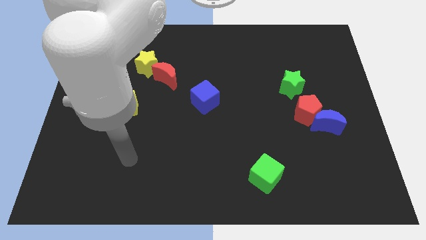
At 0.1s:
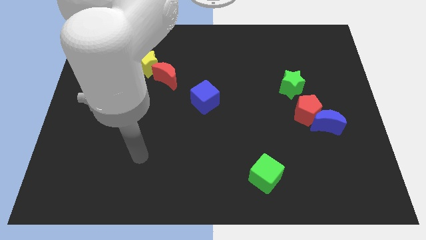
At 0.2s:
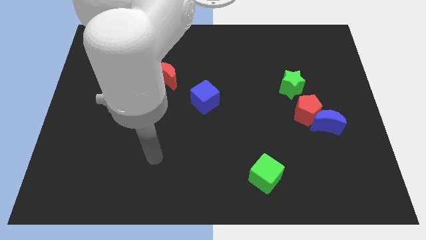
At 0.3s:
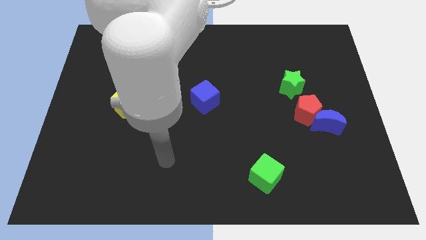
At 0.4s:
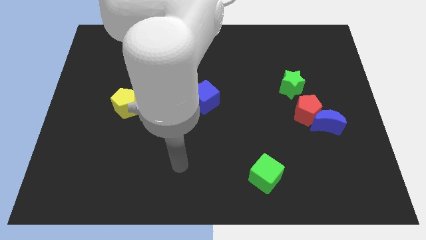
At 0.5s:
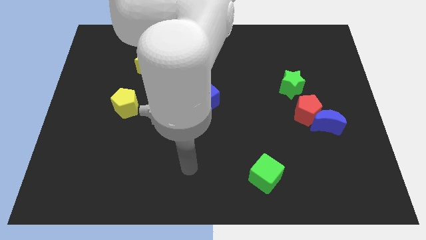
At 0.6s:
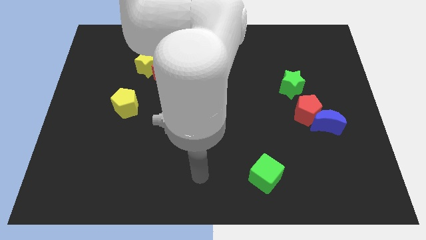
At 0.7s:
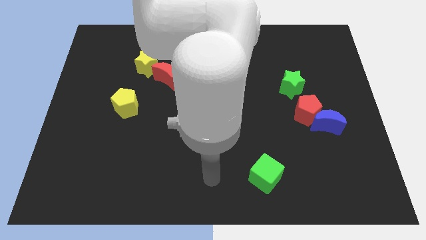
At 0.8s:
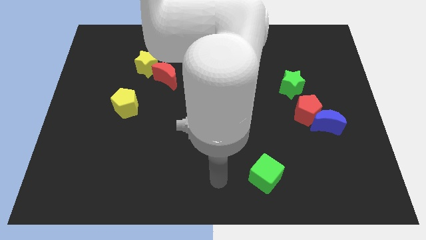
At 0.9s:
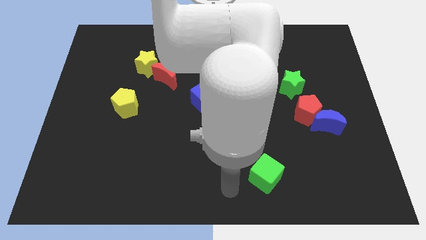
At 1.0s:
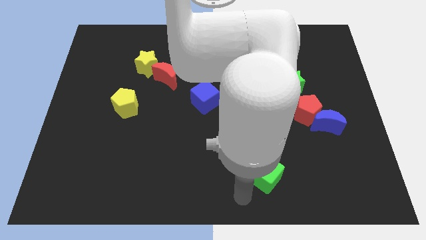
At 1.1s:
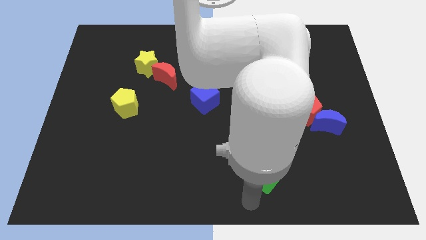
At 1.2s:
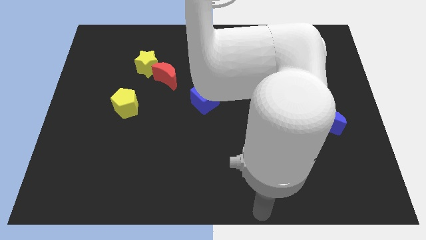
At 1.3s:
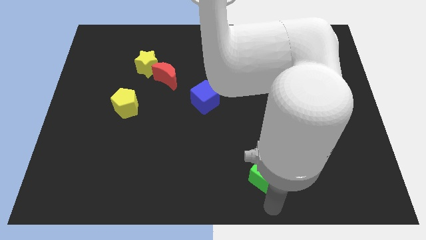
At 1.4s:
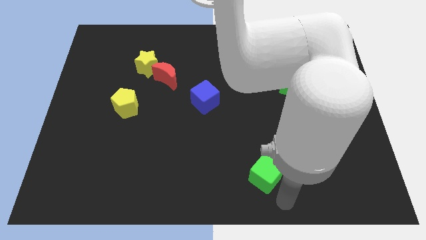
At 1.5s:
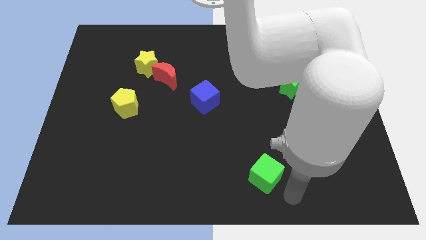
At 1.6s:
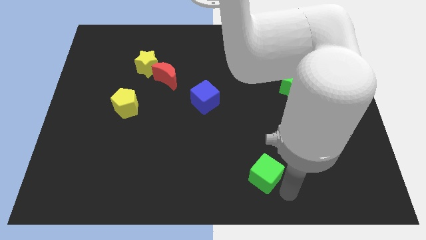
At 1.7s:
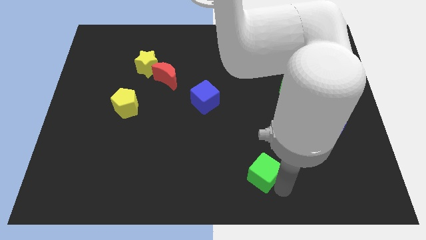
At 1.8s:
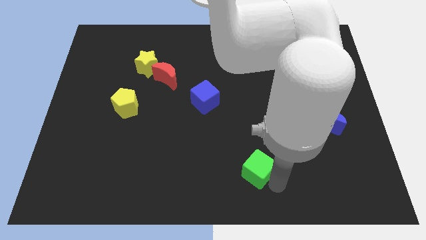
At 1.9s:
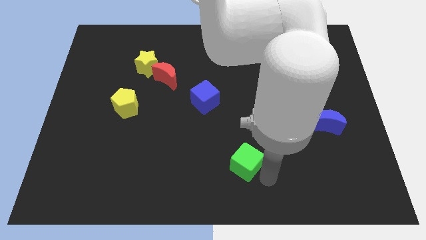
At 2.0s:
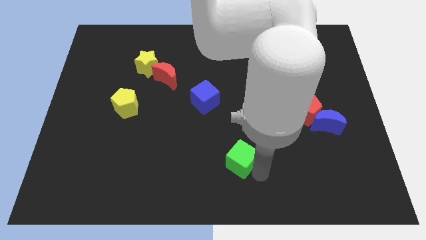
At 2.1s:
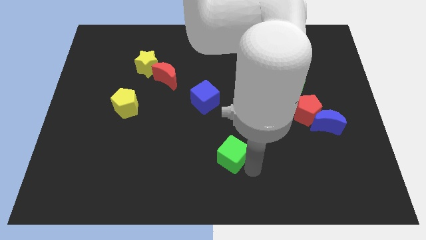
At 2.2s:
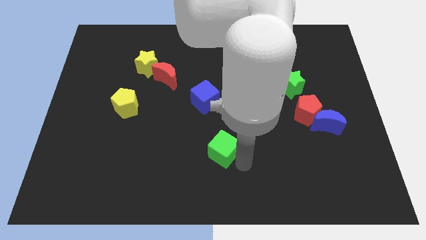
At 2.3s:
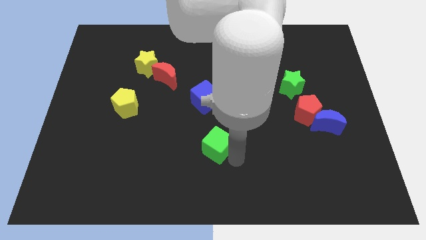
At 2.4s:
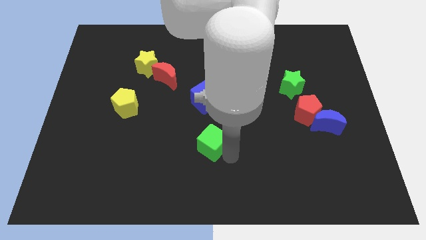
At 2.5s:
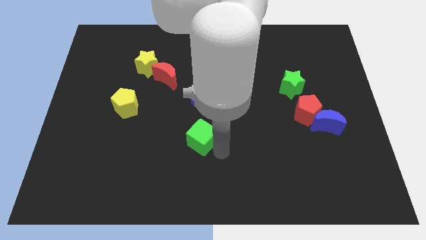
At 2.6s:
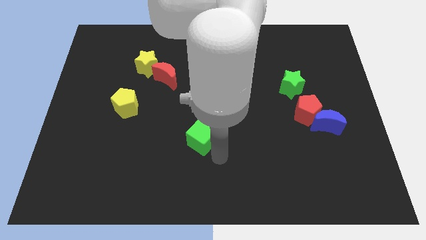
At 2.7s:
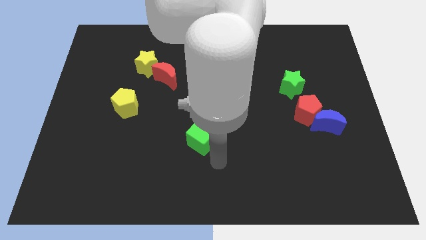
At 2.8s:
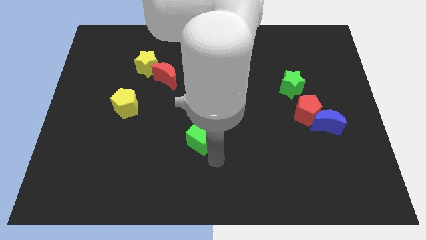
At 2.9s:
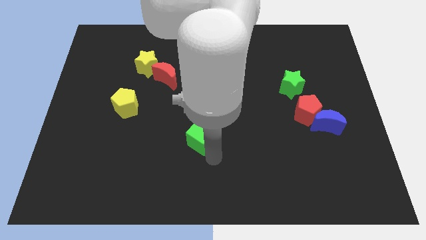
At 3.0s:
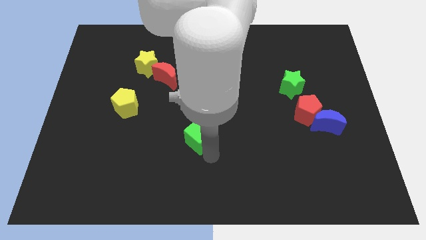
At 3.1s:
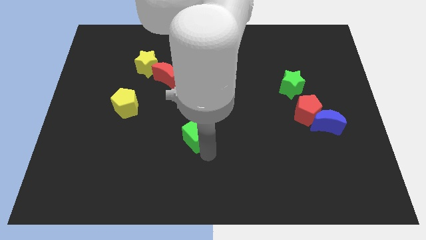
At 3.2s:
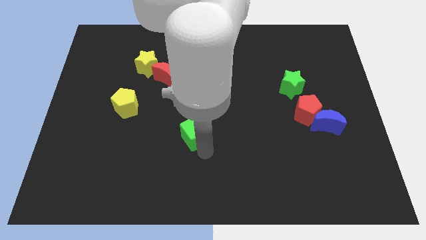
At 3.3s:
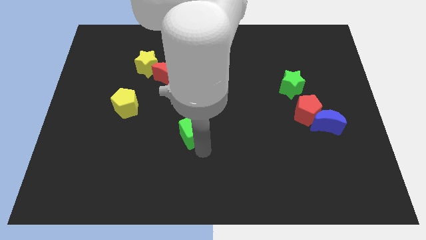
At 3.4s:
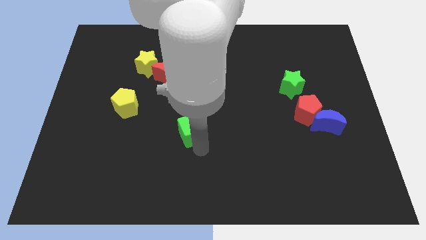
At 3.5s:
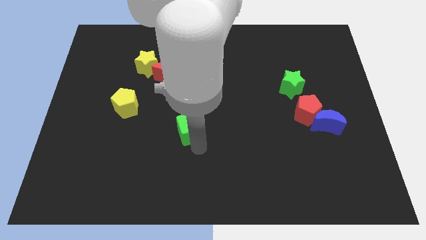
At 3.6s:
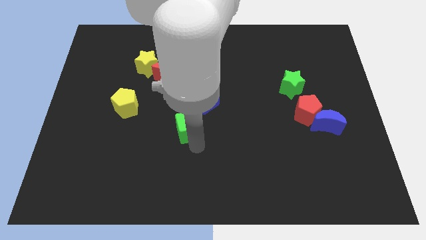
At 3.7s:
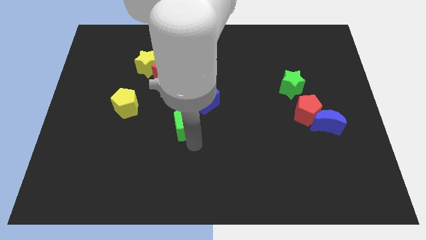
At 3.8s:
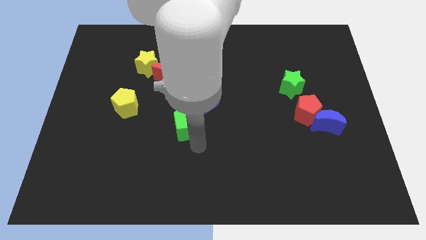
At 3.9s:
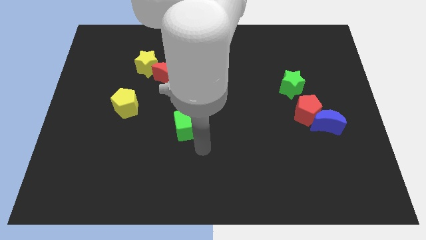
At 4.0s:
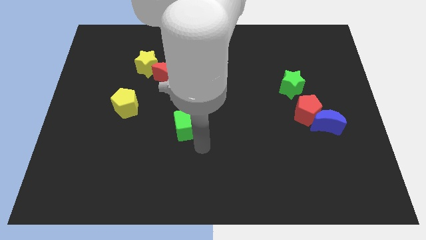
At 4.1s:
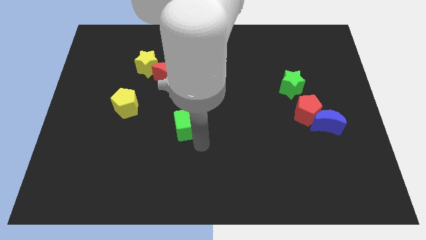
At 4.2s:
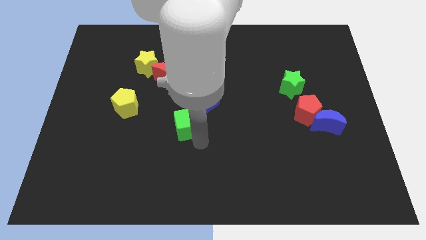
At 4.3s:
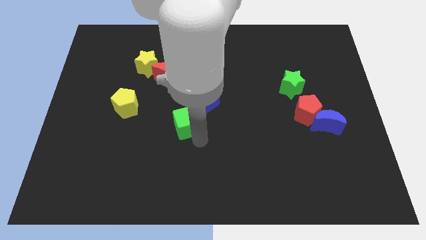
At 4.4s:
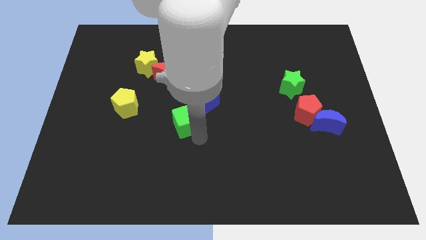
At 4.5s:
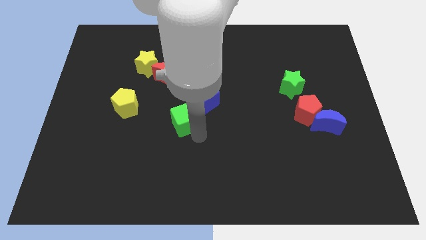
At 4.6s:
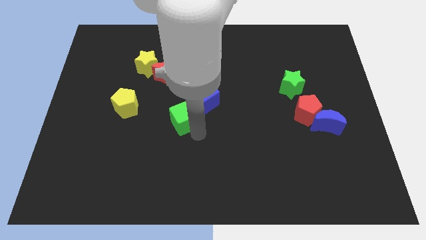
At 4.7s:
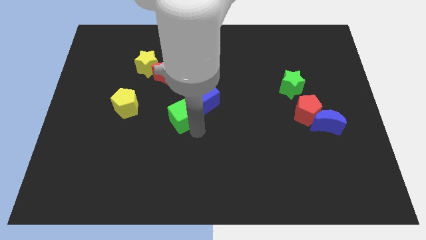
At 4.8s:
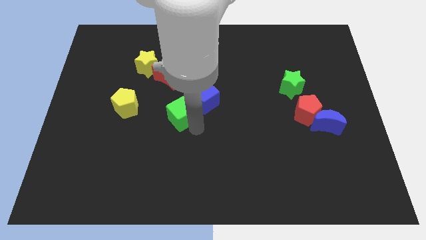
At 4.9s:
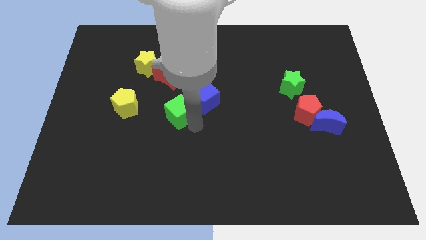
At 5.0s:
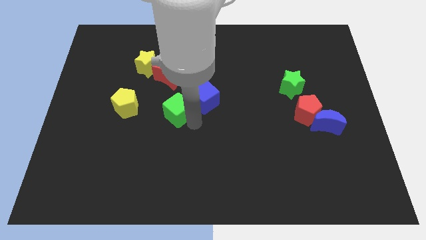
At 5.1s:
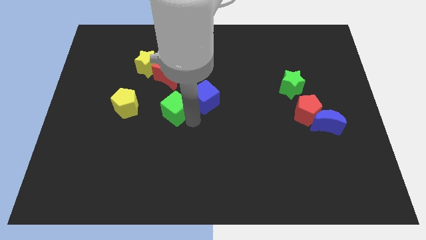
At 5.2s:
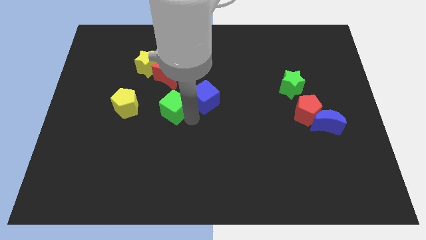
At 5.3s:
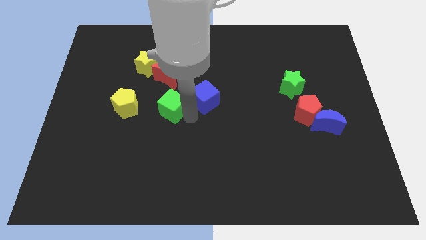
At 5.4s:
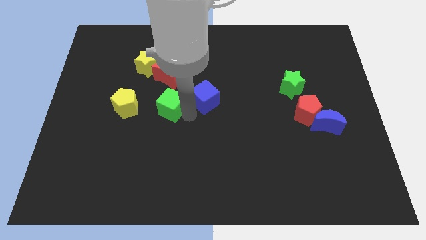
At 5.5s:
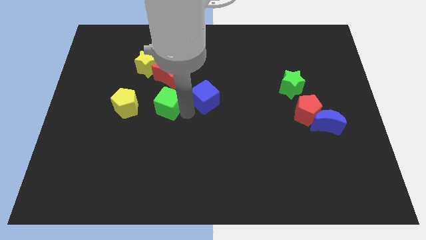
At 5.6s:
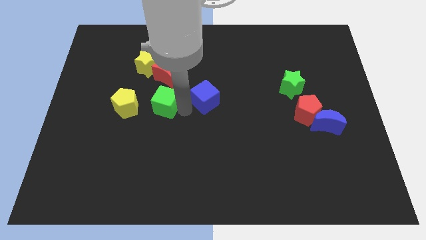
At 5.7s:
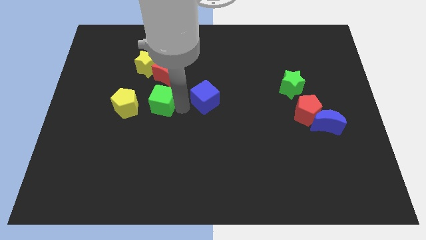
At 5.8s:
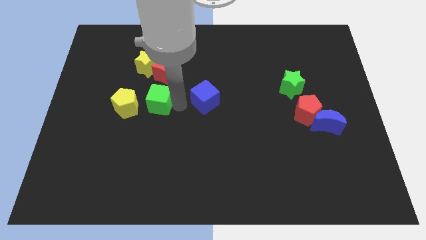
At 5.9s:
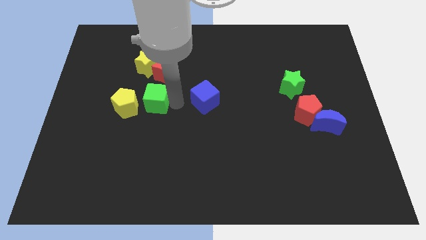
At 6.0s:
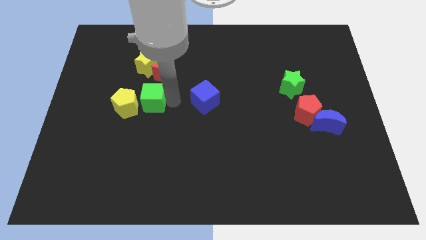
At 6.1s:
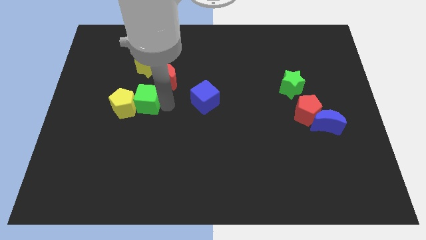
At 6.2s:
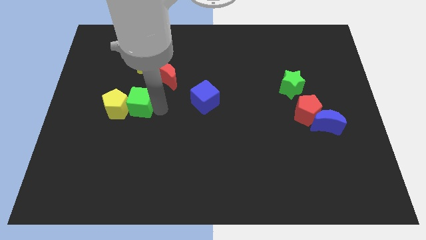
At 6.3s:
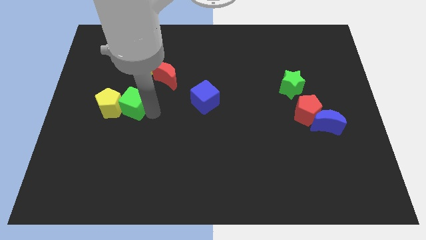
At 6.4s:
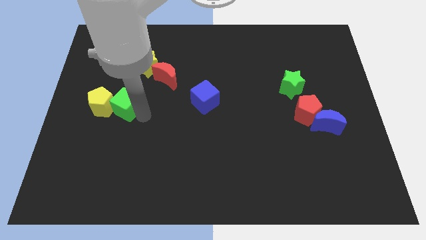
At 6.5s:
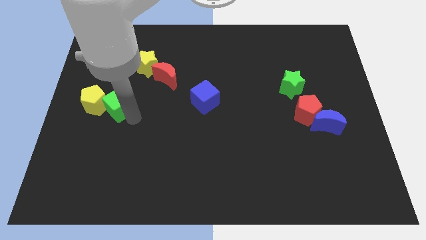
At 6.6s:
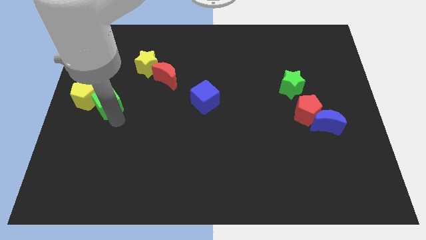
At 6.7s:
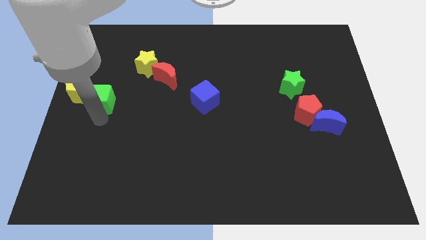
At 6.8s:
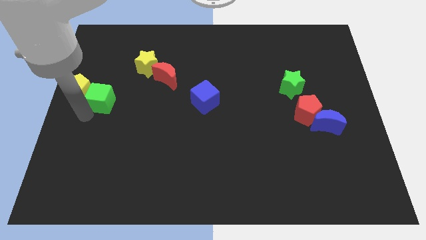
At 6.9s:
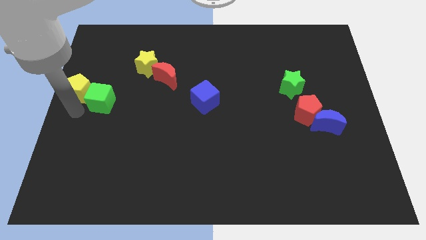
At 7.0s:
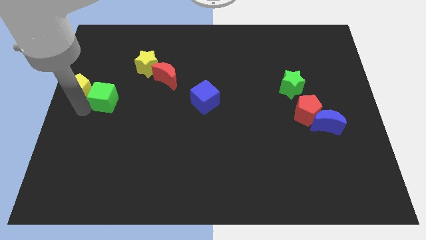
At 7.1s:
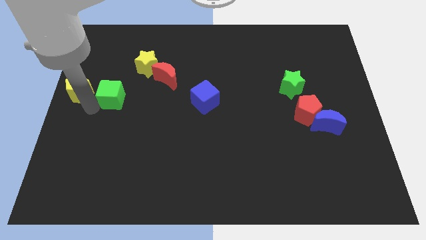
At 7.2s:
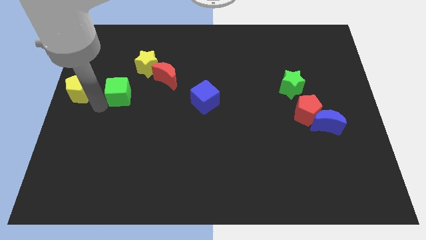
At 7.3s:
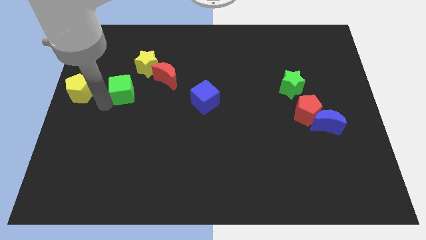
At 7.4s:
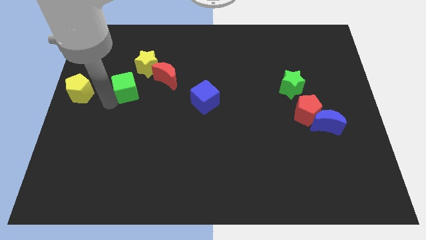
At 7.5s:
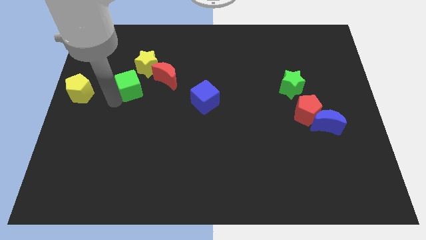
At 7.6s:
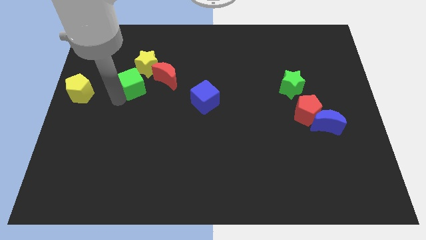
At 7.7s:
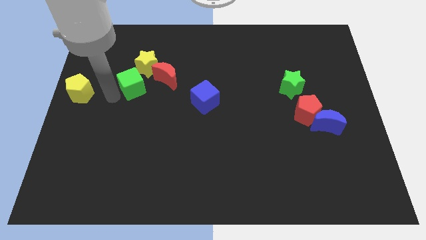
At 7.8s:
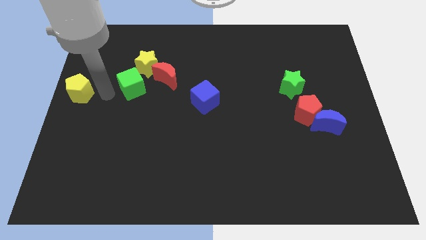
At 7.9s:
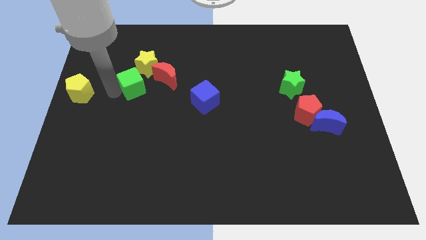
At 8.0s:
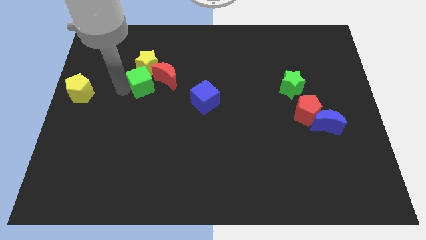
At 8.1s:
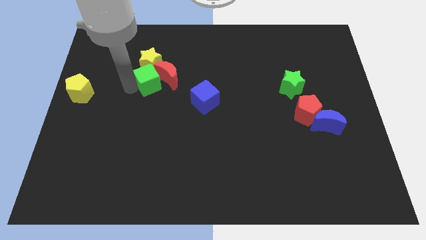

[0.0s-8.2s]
move the green cube towards the red moon
